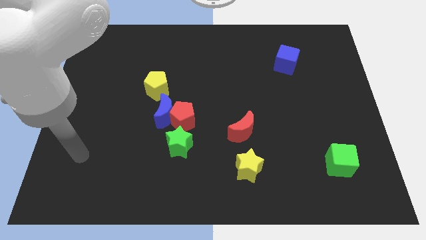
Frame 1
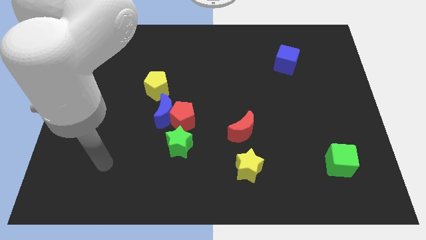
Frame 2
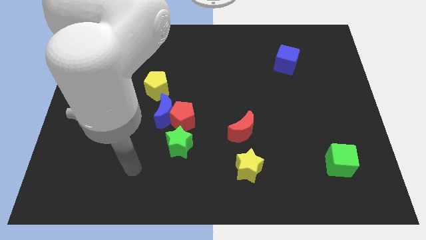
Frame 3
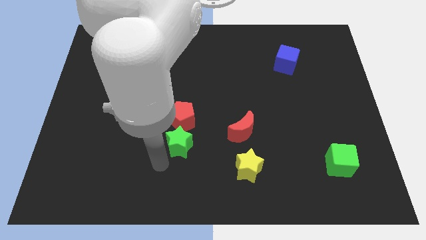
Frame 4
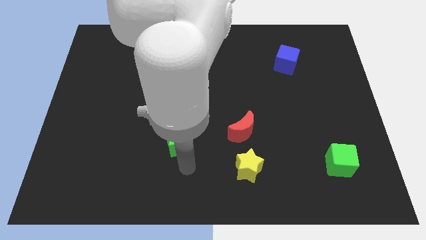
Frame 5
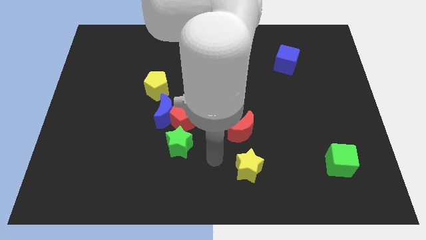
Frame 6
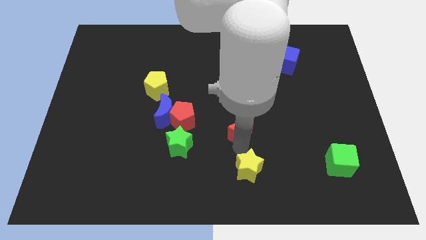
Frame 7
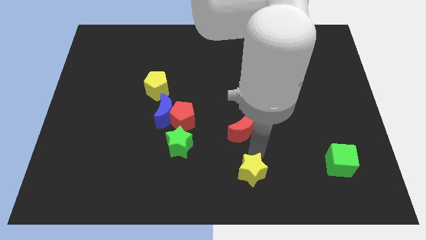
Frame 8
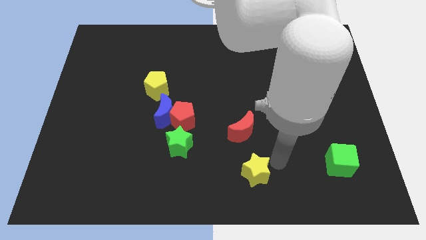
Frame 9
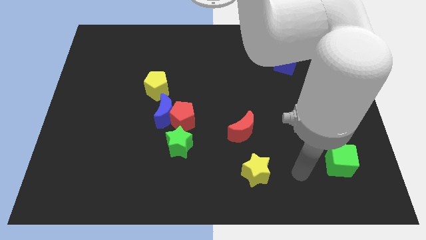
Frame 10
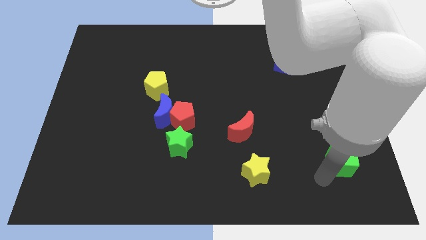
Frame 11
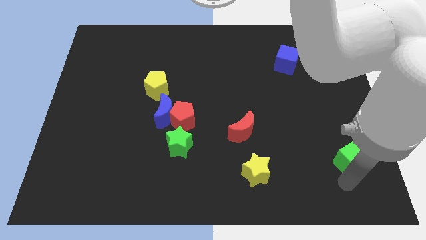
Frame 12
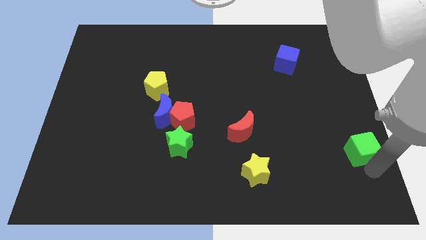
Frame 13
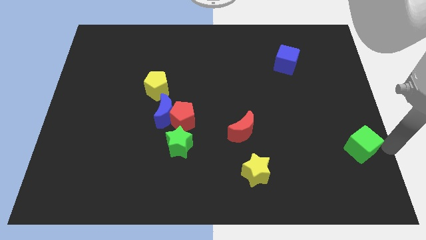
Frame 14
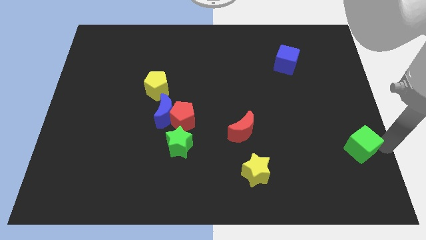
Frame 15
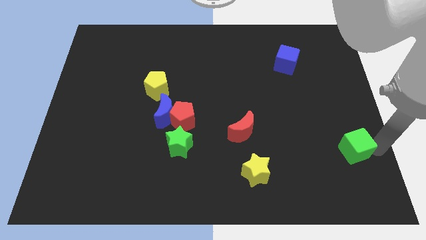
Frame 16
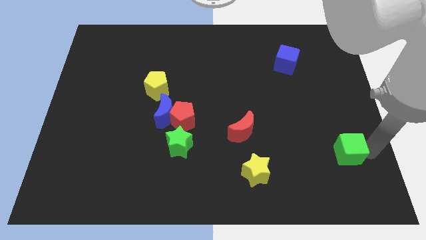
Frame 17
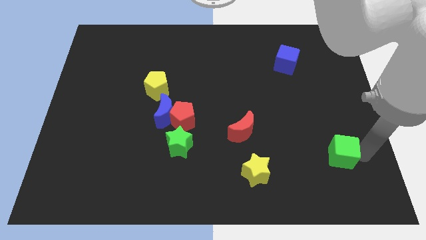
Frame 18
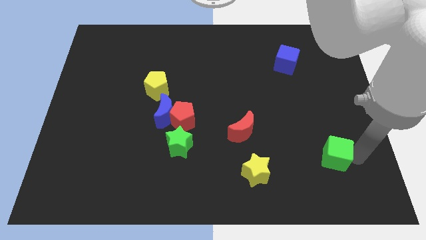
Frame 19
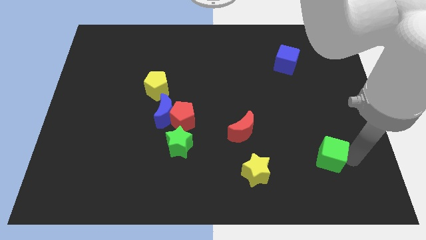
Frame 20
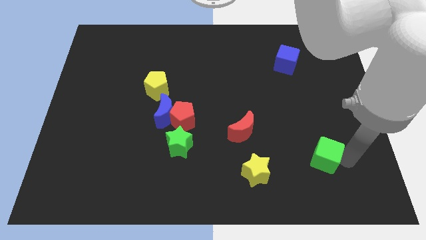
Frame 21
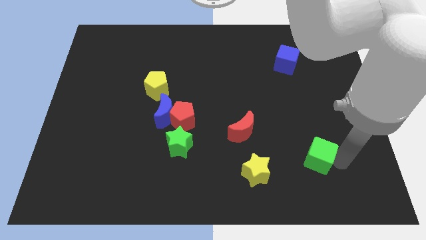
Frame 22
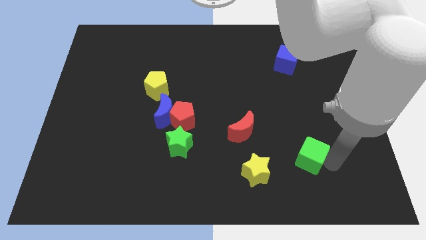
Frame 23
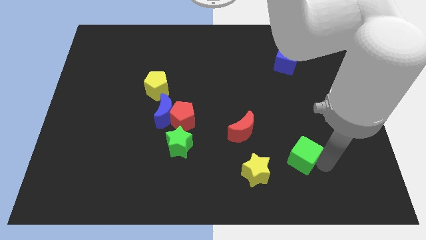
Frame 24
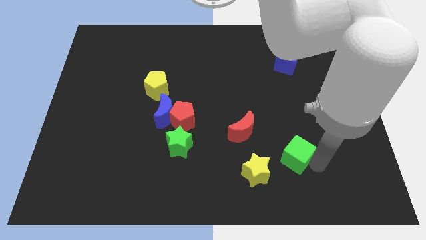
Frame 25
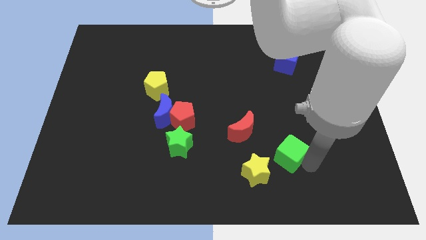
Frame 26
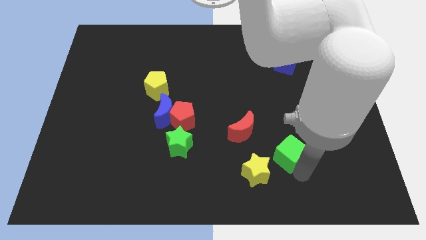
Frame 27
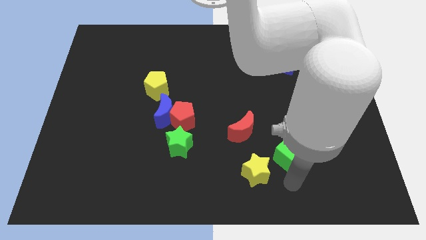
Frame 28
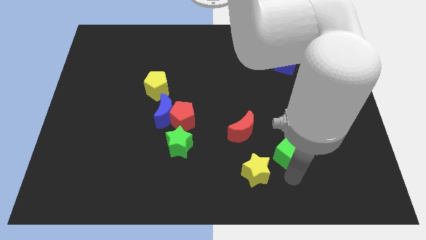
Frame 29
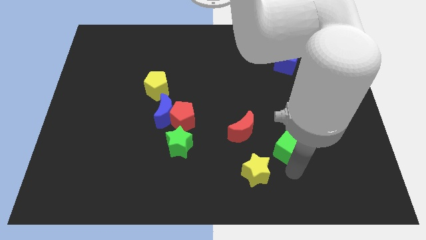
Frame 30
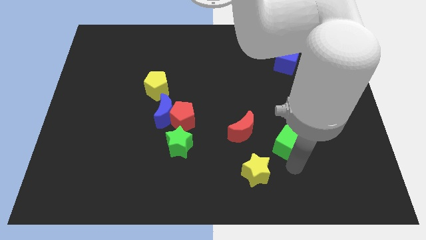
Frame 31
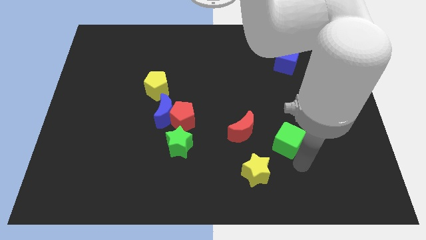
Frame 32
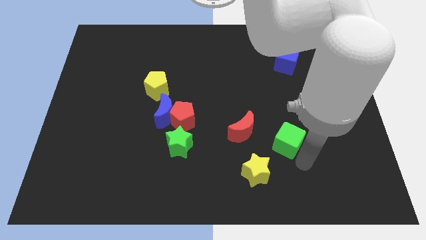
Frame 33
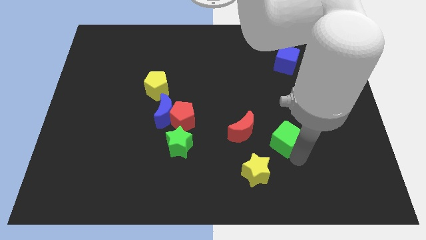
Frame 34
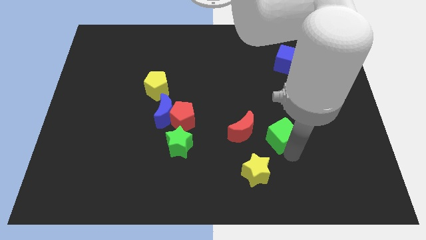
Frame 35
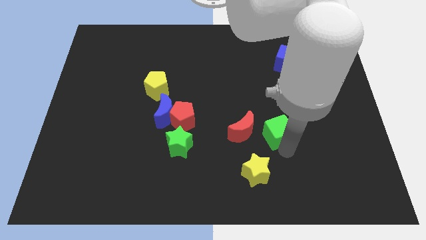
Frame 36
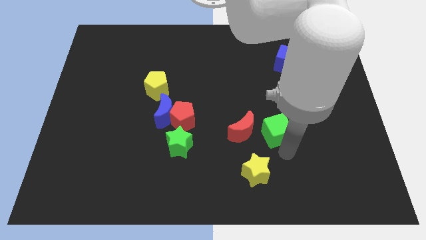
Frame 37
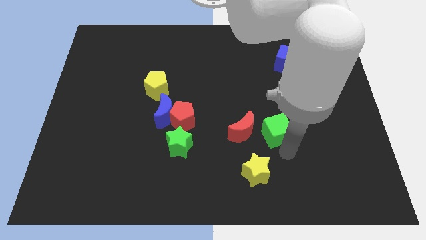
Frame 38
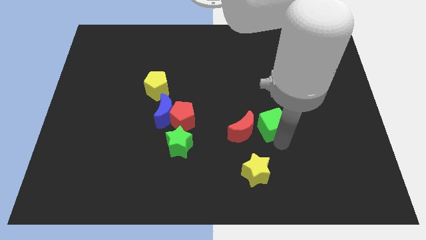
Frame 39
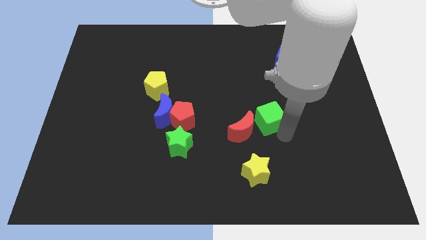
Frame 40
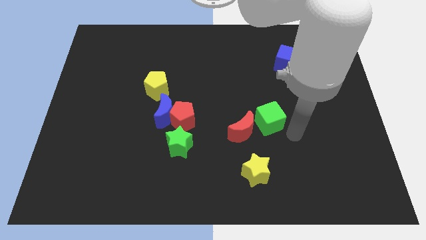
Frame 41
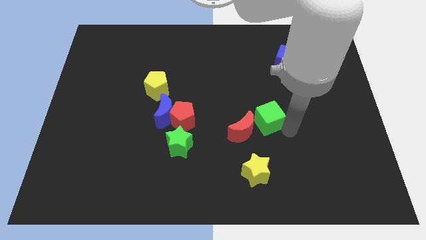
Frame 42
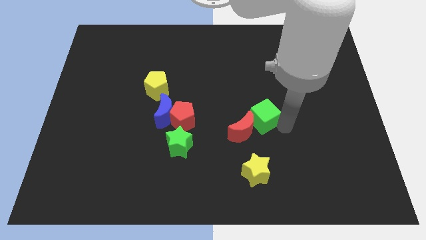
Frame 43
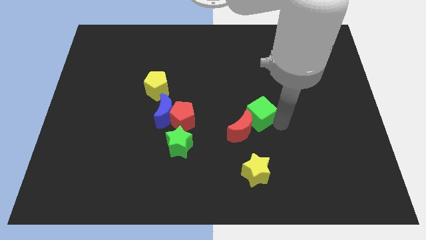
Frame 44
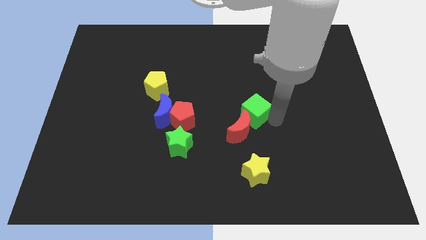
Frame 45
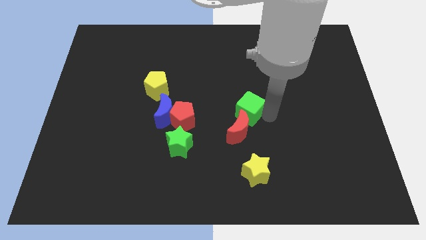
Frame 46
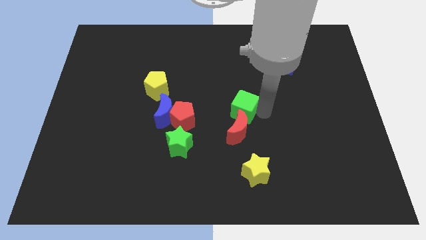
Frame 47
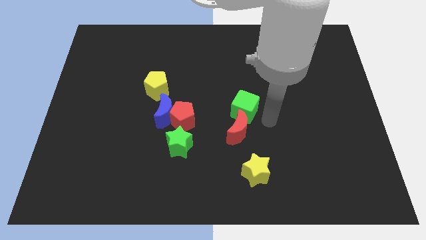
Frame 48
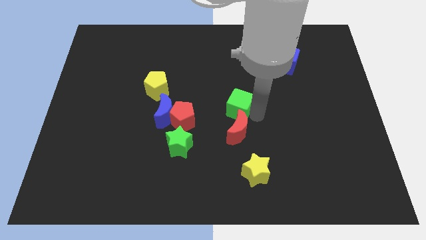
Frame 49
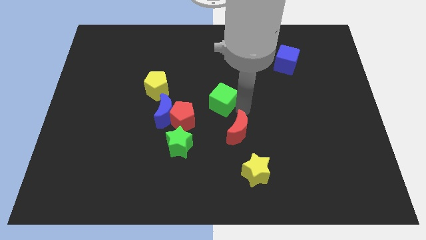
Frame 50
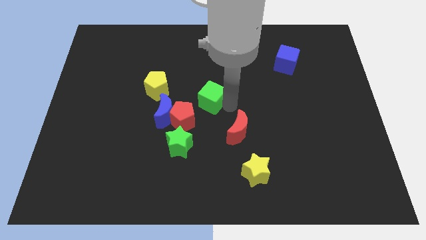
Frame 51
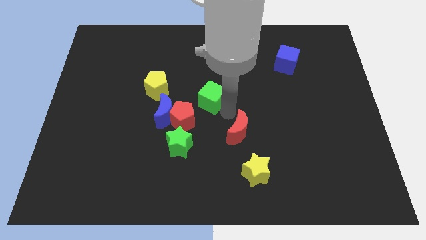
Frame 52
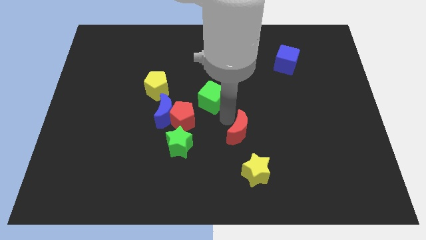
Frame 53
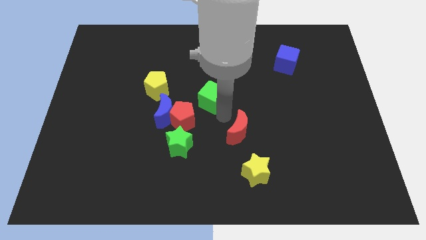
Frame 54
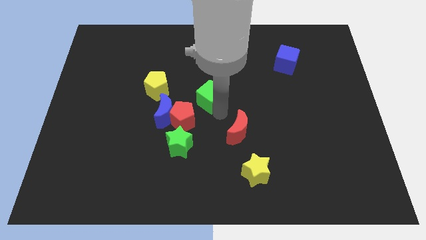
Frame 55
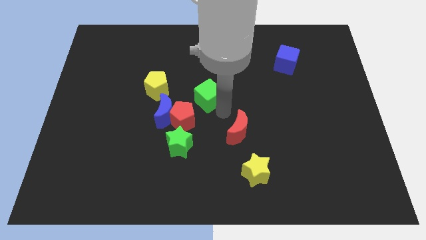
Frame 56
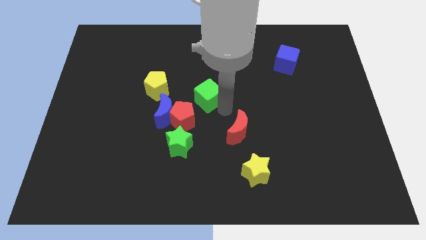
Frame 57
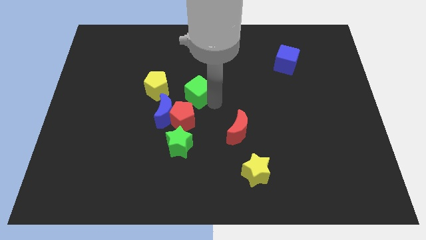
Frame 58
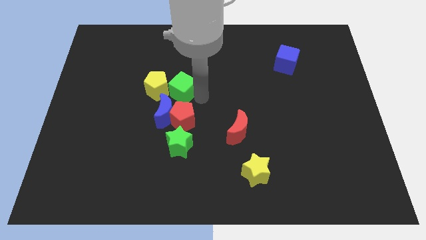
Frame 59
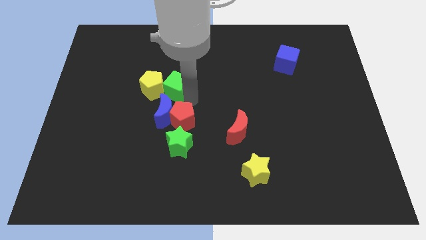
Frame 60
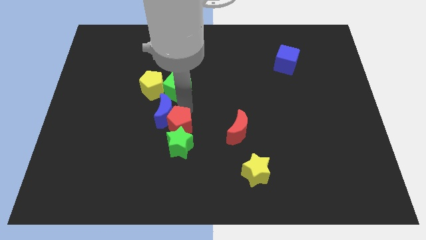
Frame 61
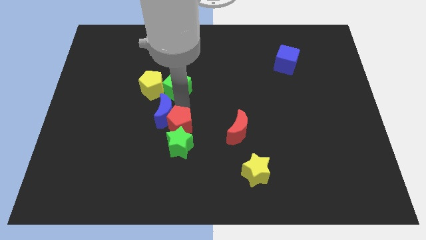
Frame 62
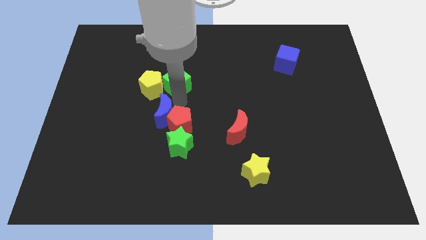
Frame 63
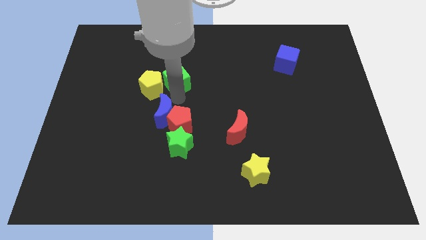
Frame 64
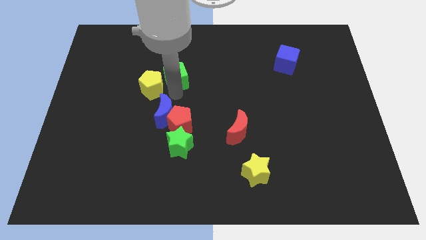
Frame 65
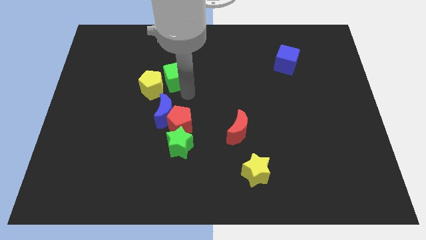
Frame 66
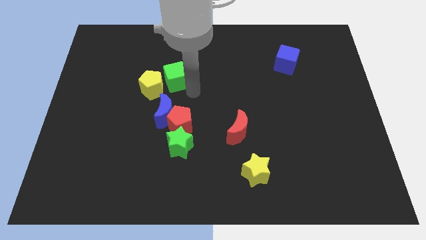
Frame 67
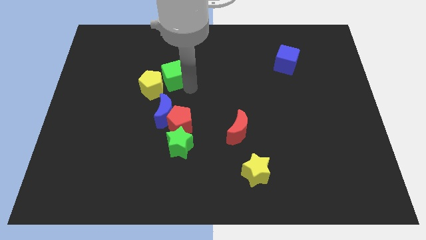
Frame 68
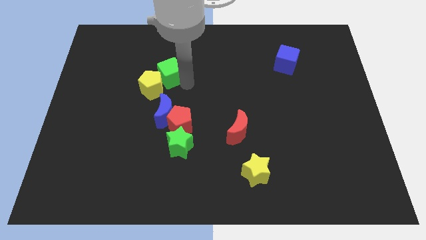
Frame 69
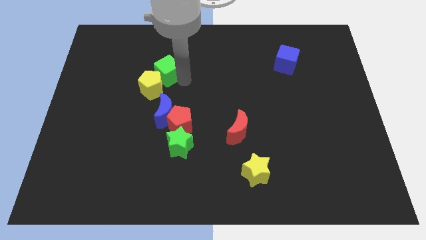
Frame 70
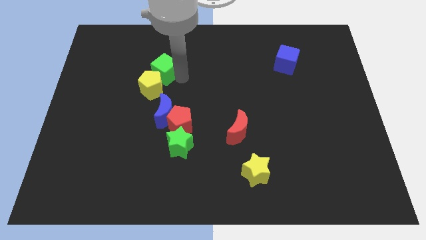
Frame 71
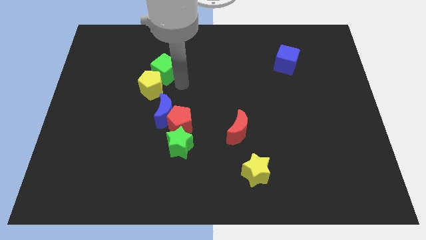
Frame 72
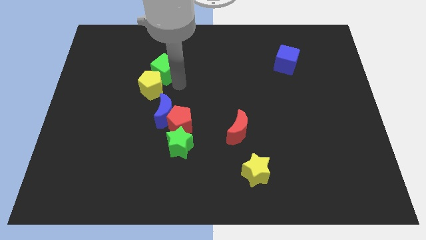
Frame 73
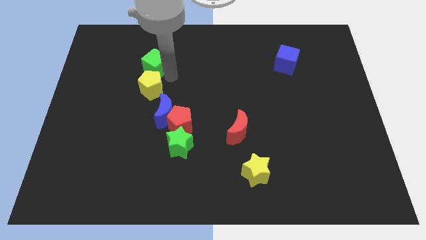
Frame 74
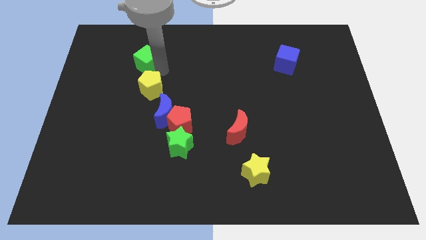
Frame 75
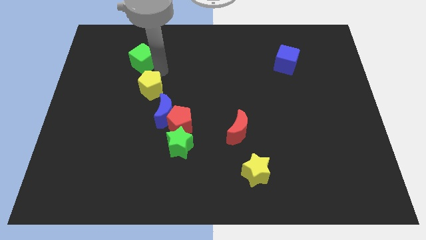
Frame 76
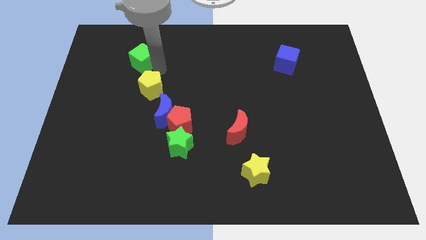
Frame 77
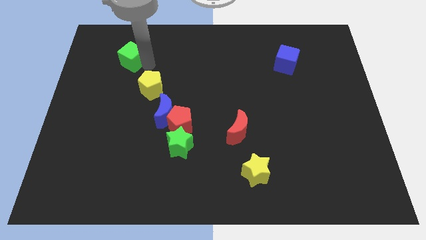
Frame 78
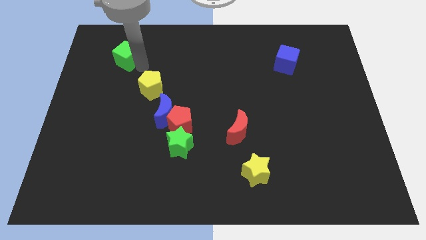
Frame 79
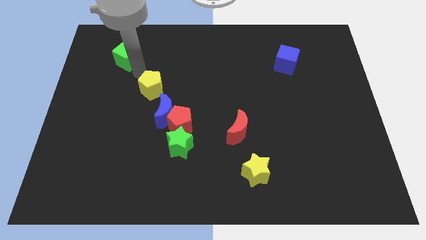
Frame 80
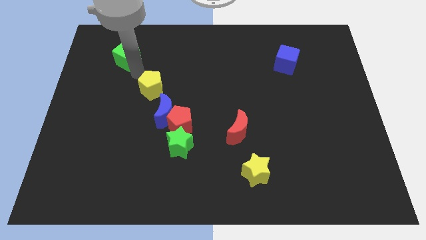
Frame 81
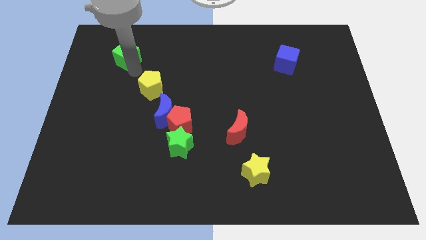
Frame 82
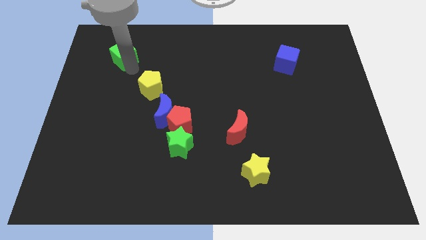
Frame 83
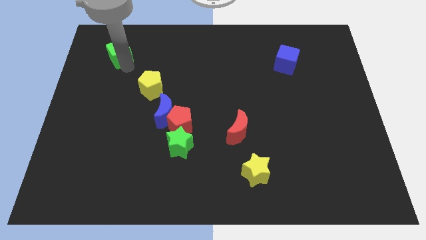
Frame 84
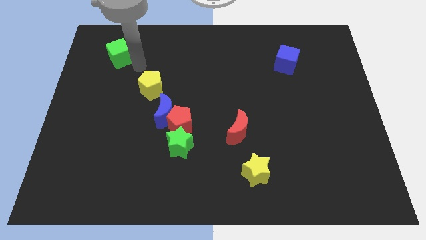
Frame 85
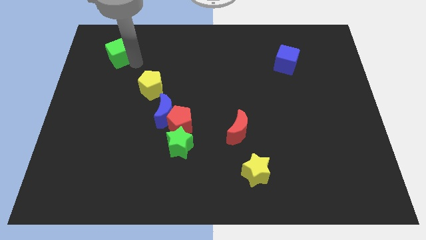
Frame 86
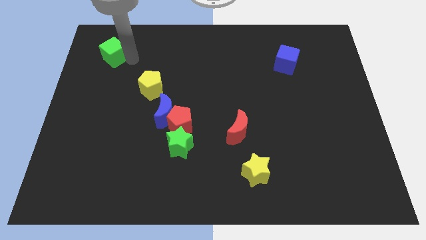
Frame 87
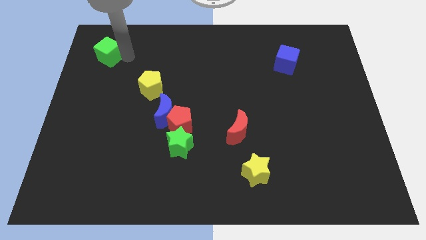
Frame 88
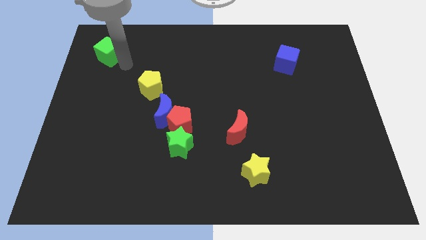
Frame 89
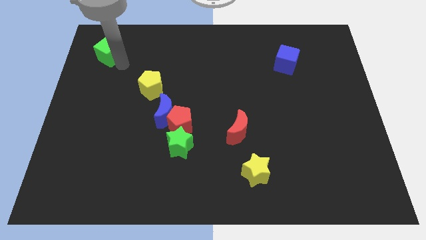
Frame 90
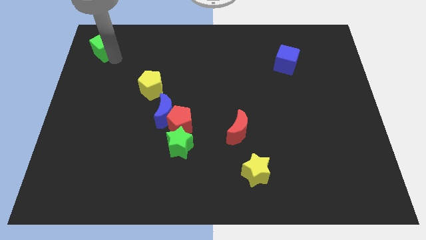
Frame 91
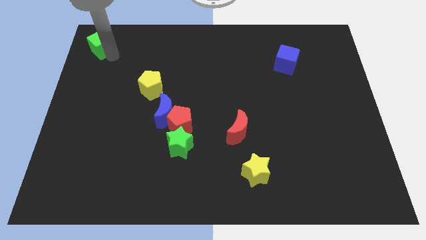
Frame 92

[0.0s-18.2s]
slide the green cube to the top left of the board
